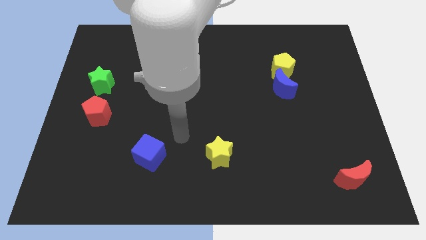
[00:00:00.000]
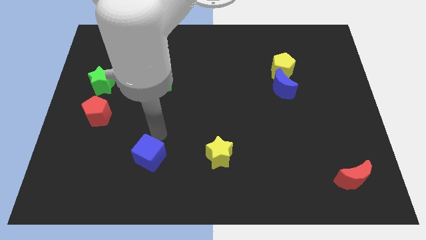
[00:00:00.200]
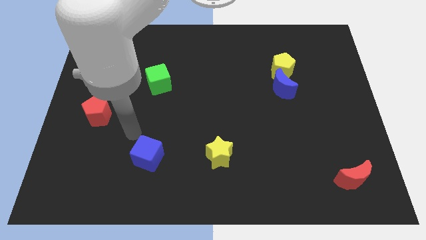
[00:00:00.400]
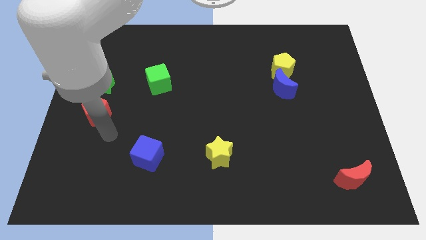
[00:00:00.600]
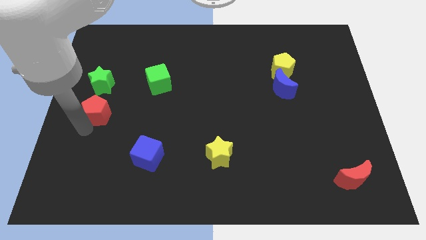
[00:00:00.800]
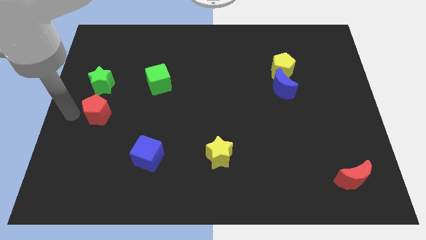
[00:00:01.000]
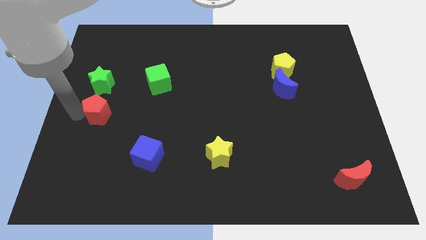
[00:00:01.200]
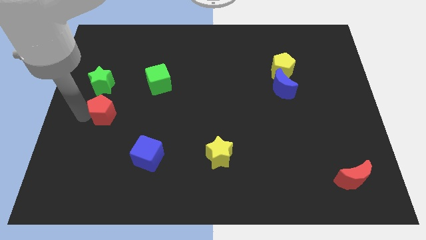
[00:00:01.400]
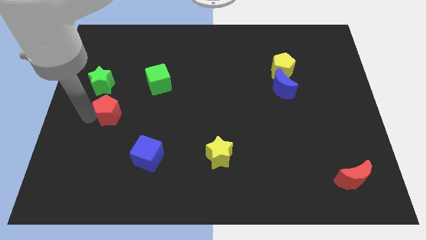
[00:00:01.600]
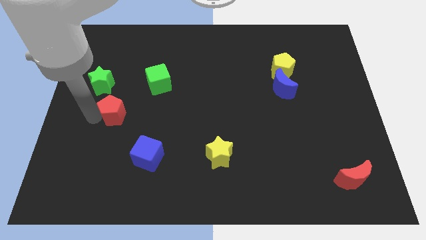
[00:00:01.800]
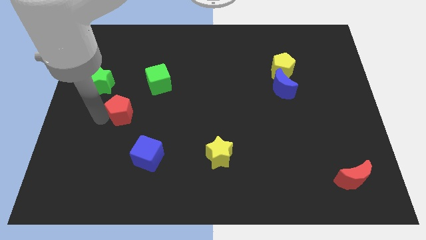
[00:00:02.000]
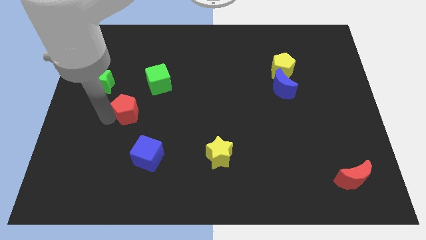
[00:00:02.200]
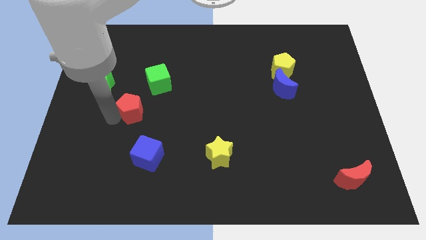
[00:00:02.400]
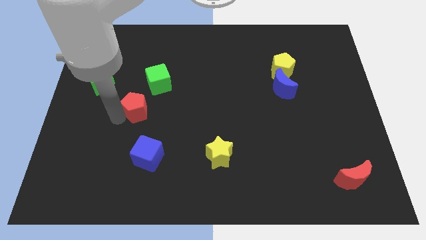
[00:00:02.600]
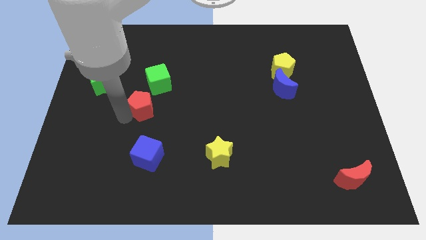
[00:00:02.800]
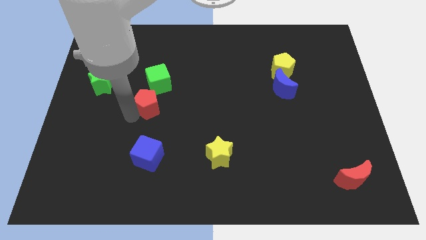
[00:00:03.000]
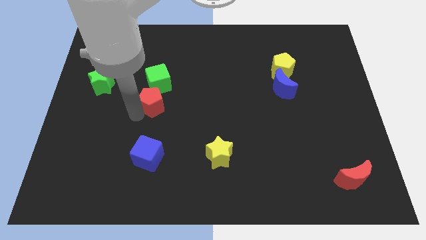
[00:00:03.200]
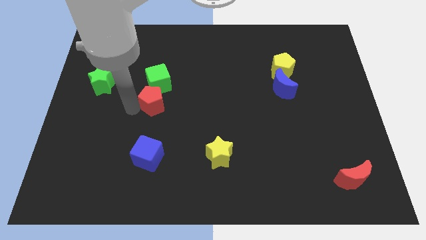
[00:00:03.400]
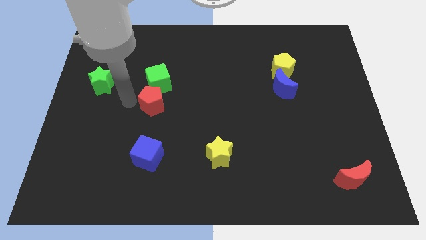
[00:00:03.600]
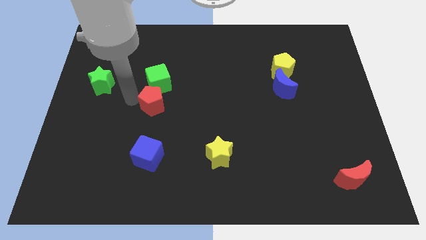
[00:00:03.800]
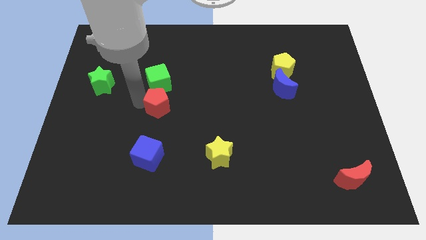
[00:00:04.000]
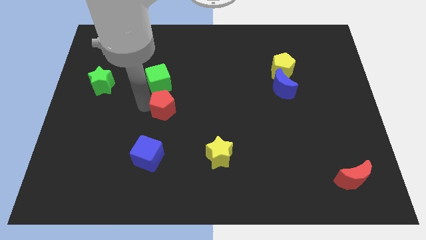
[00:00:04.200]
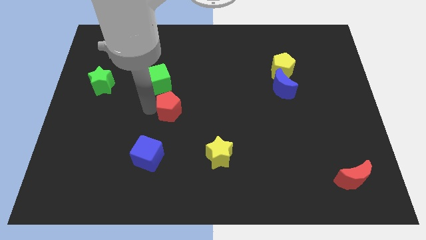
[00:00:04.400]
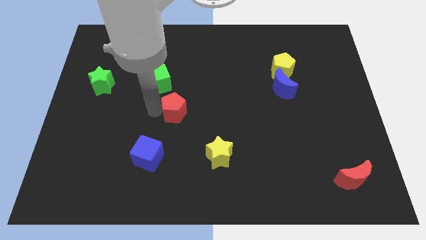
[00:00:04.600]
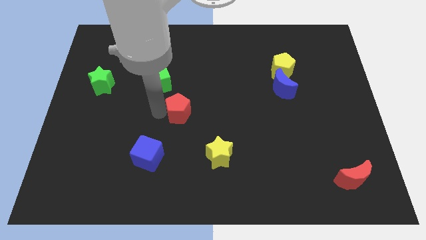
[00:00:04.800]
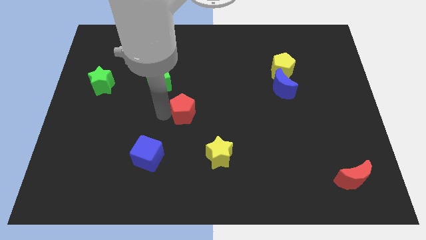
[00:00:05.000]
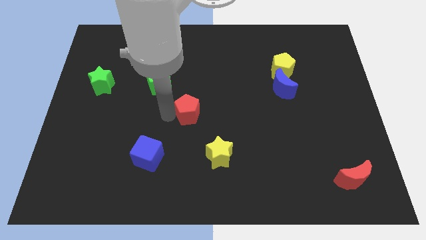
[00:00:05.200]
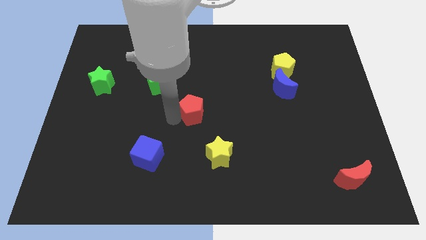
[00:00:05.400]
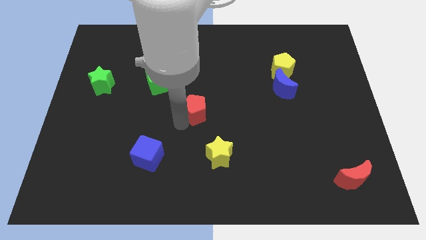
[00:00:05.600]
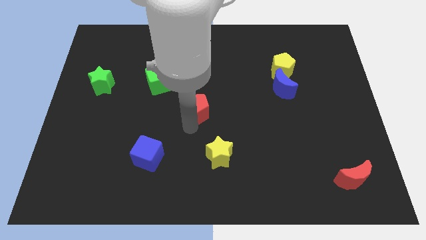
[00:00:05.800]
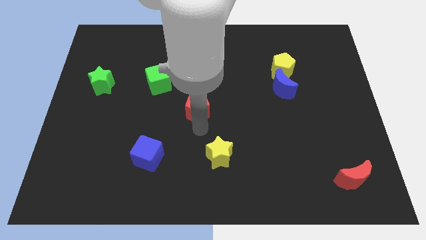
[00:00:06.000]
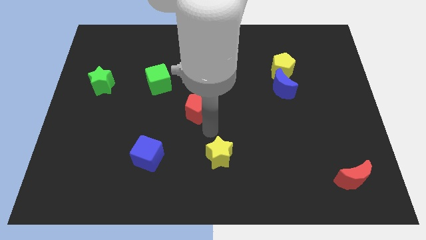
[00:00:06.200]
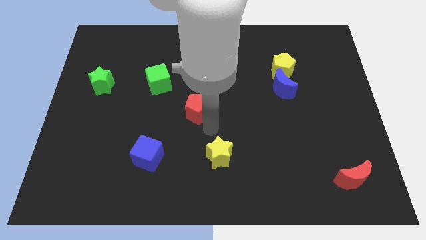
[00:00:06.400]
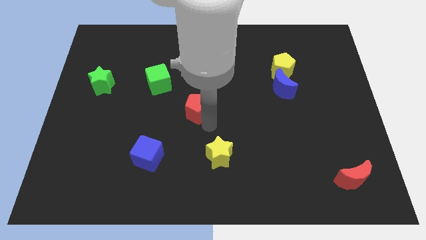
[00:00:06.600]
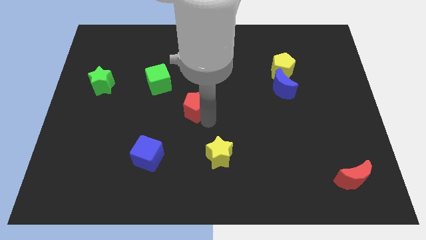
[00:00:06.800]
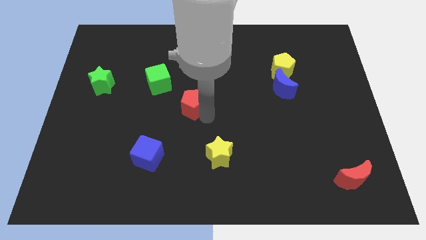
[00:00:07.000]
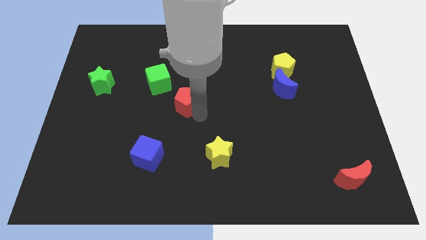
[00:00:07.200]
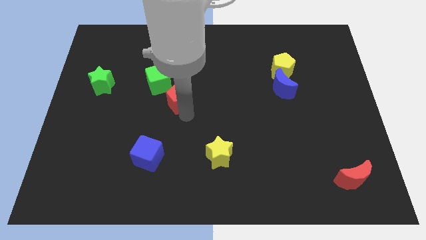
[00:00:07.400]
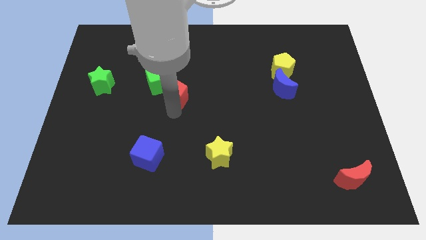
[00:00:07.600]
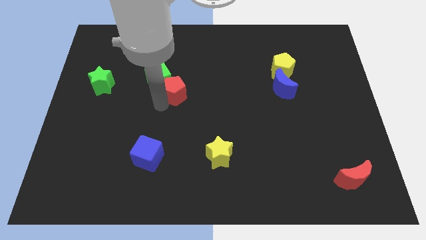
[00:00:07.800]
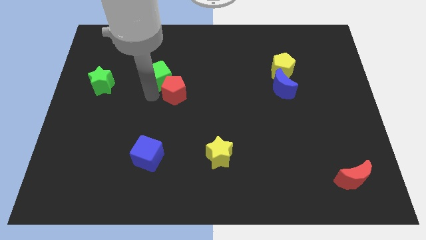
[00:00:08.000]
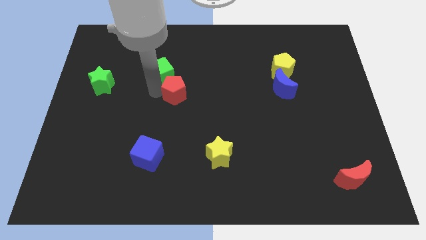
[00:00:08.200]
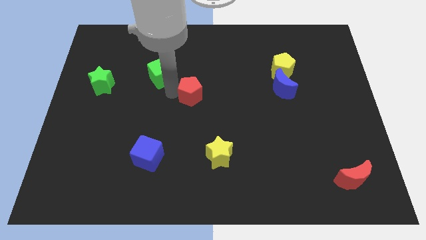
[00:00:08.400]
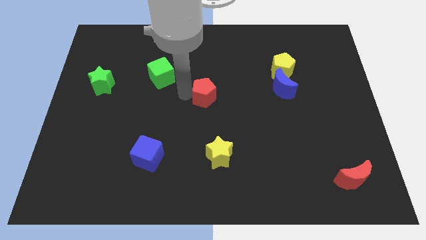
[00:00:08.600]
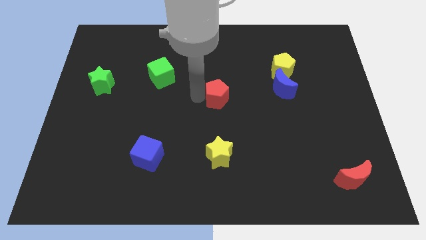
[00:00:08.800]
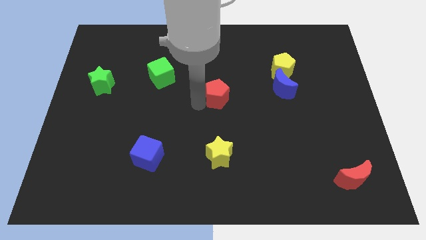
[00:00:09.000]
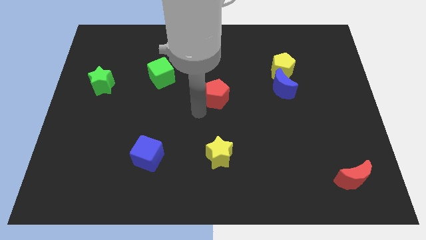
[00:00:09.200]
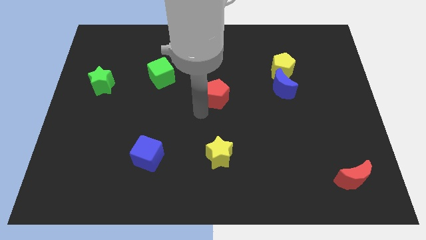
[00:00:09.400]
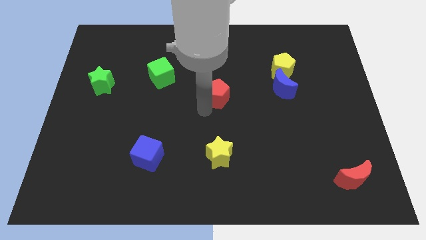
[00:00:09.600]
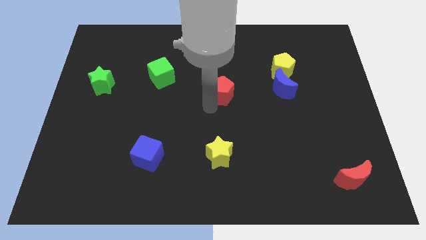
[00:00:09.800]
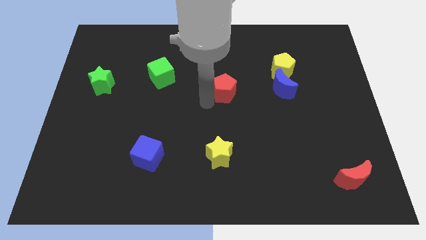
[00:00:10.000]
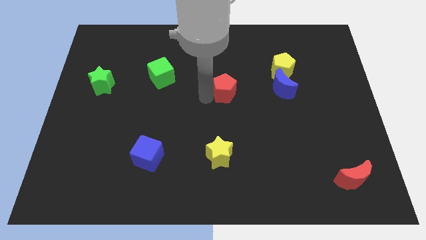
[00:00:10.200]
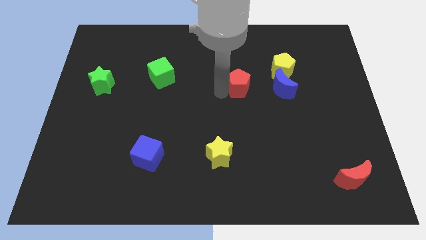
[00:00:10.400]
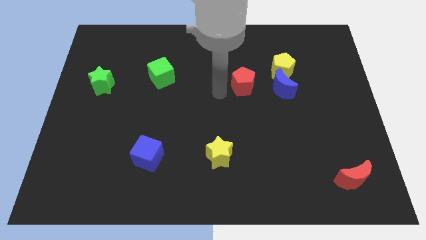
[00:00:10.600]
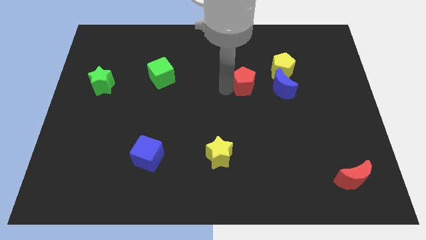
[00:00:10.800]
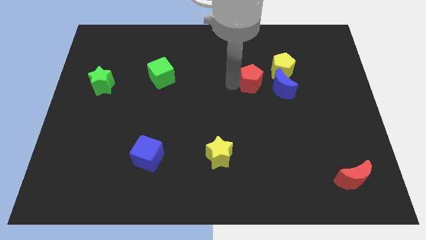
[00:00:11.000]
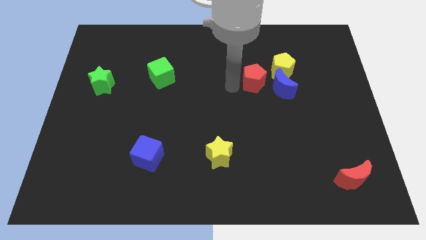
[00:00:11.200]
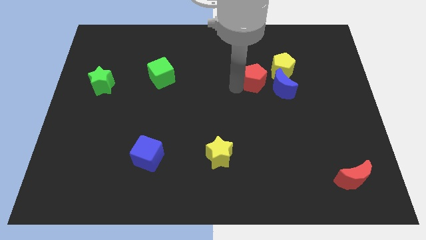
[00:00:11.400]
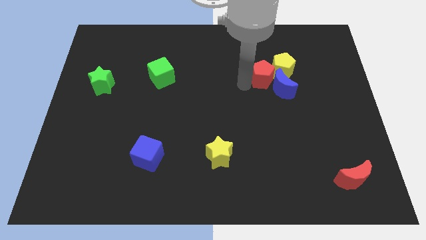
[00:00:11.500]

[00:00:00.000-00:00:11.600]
slide the red pentagon to the yellow pentagon

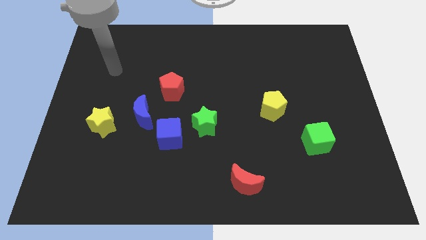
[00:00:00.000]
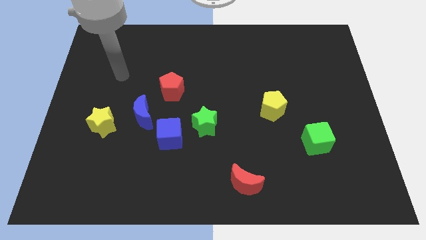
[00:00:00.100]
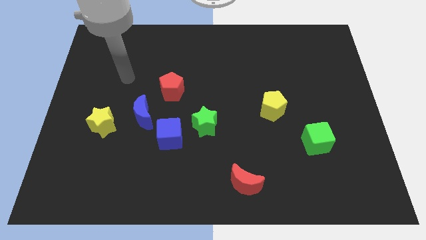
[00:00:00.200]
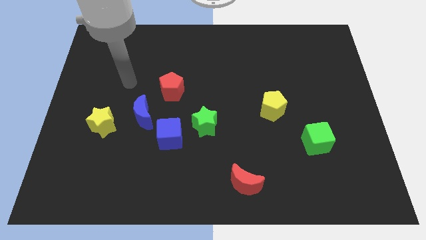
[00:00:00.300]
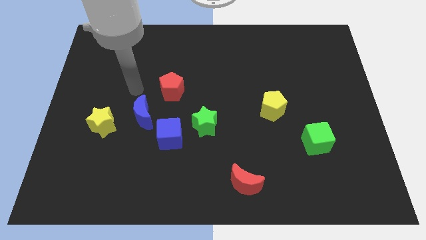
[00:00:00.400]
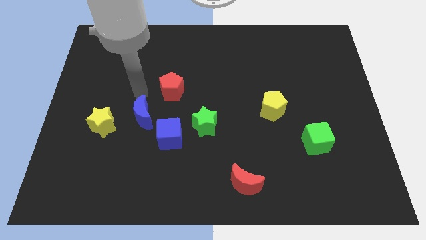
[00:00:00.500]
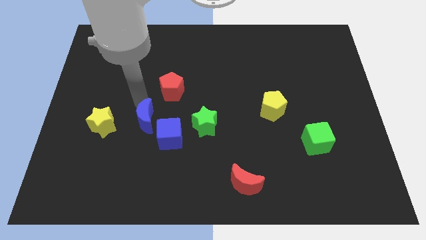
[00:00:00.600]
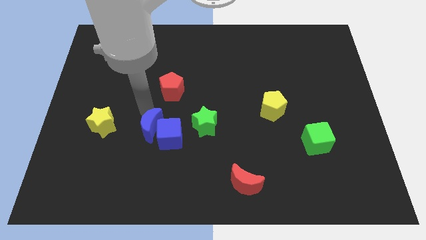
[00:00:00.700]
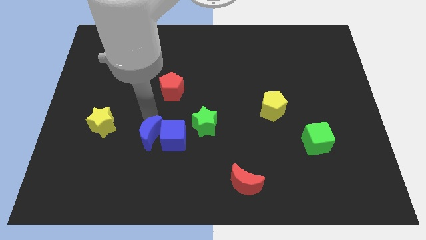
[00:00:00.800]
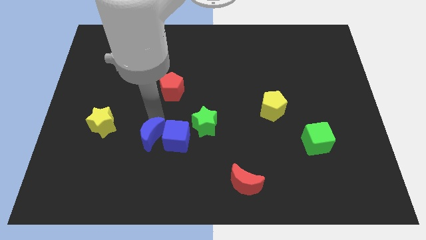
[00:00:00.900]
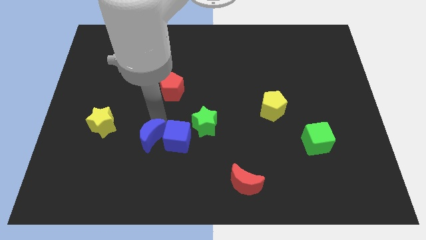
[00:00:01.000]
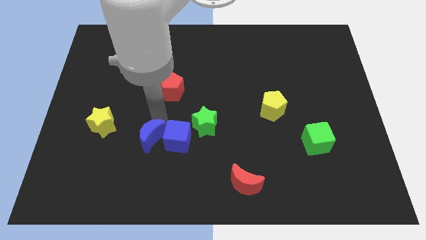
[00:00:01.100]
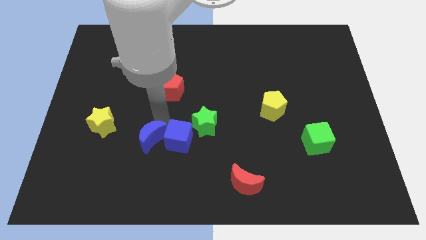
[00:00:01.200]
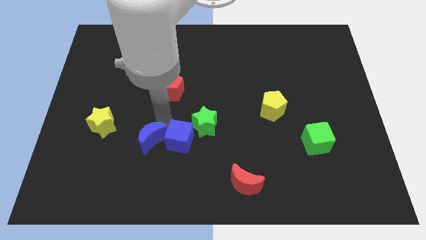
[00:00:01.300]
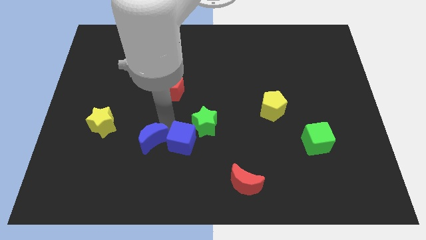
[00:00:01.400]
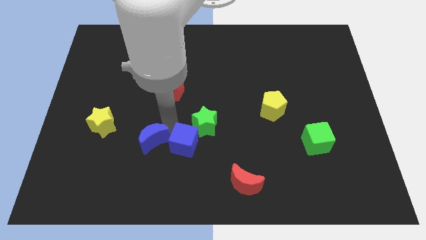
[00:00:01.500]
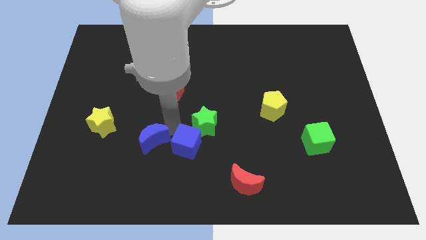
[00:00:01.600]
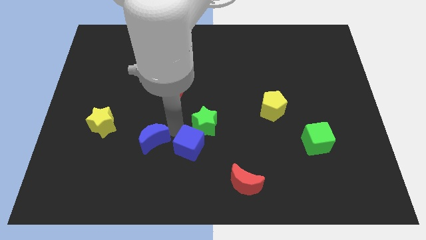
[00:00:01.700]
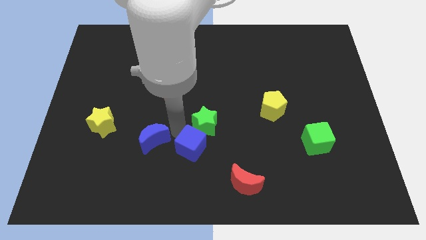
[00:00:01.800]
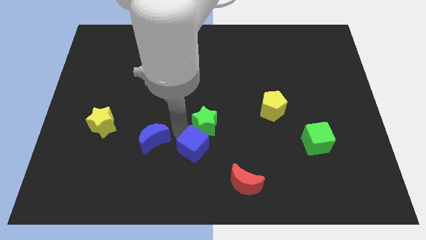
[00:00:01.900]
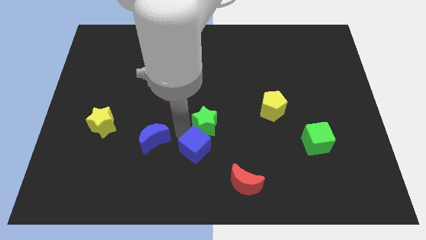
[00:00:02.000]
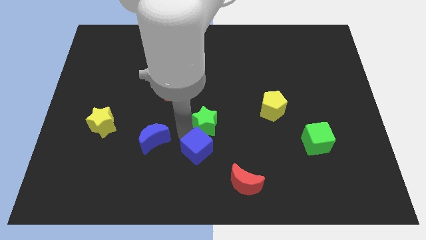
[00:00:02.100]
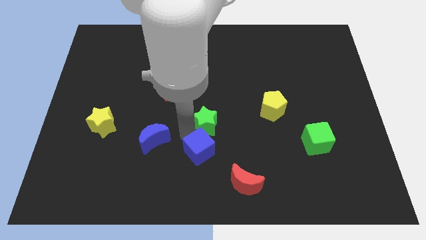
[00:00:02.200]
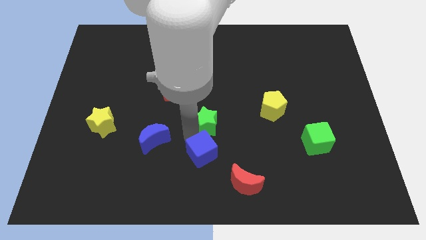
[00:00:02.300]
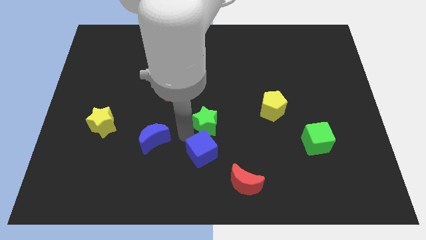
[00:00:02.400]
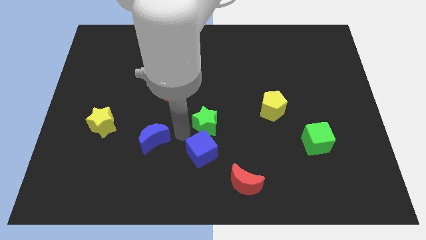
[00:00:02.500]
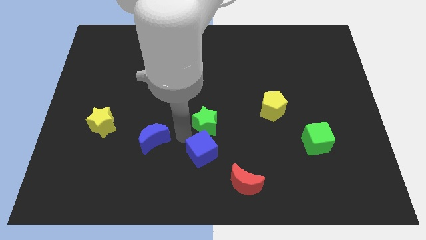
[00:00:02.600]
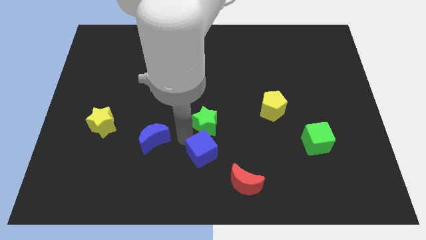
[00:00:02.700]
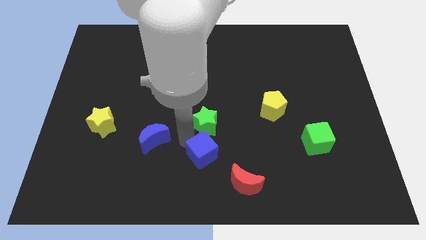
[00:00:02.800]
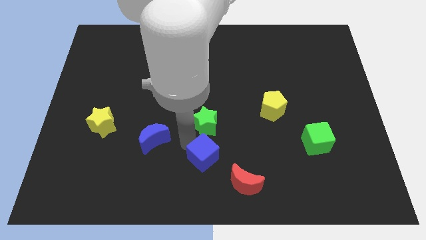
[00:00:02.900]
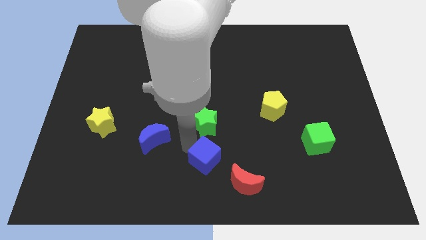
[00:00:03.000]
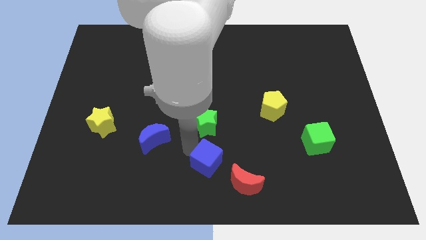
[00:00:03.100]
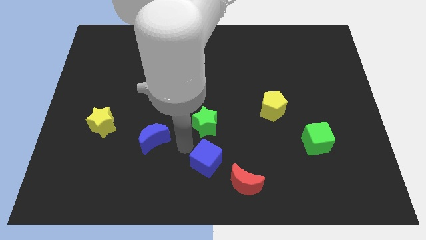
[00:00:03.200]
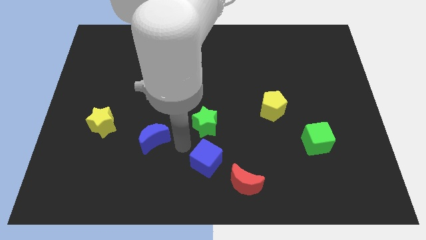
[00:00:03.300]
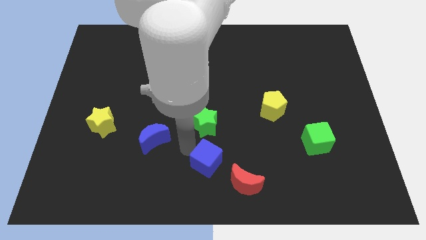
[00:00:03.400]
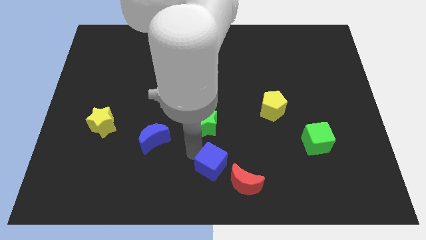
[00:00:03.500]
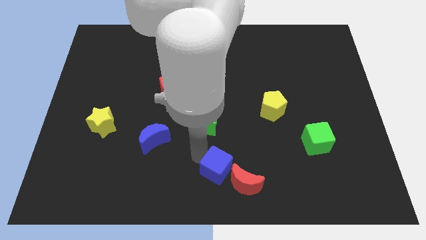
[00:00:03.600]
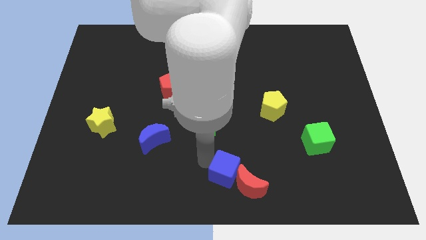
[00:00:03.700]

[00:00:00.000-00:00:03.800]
move the blue cube towards the red moon
